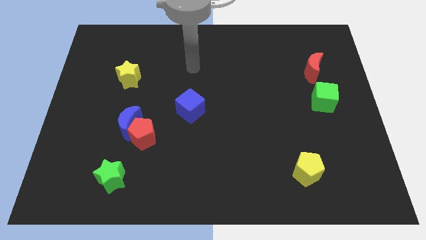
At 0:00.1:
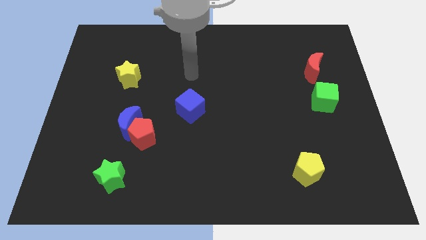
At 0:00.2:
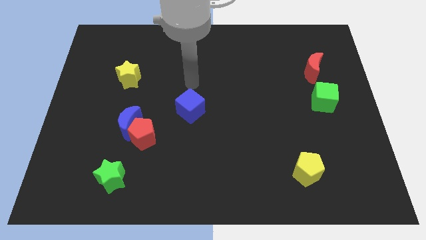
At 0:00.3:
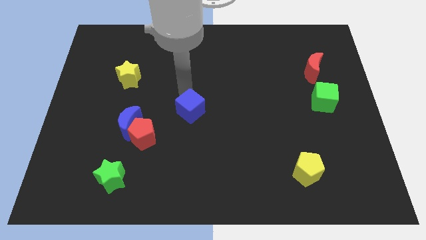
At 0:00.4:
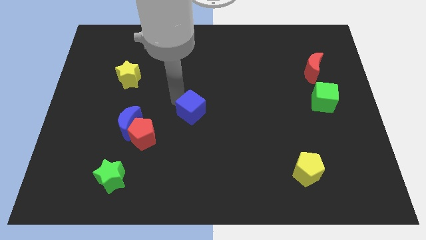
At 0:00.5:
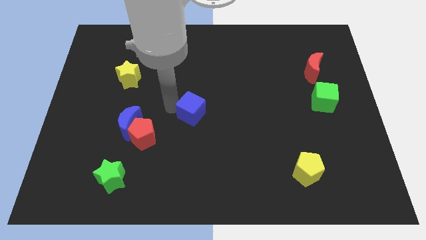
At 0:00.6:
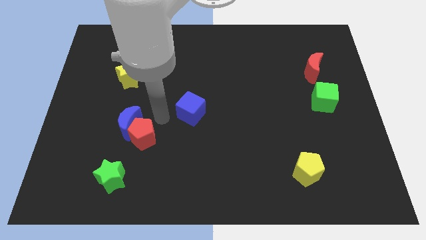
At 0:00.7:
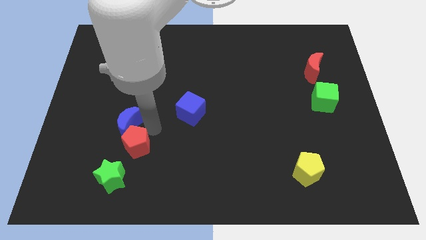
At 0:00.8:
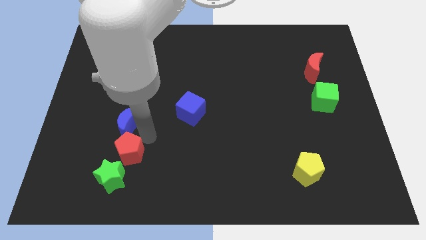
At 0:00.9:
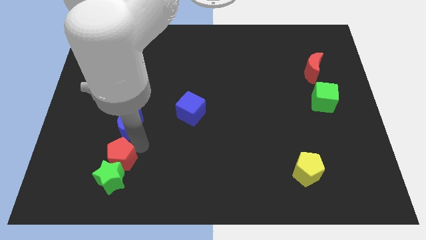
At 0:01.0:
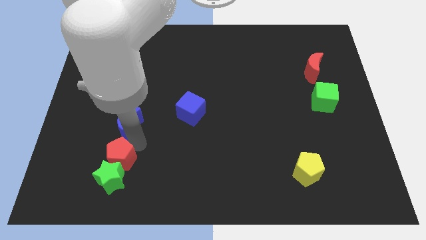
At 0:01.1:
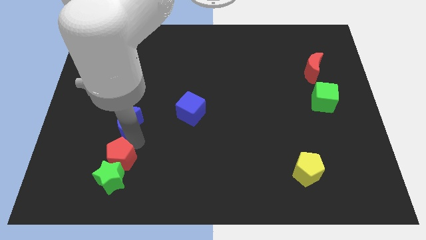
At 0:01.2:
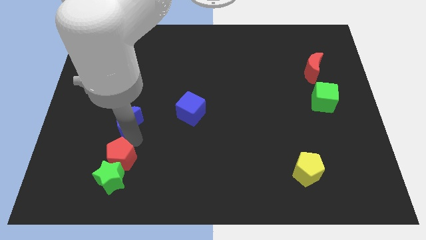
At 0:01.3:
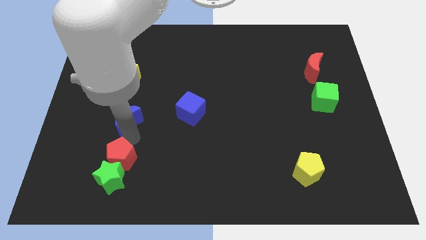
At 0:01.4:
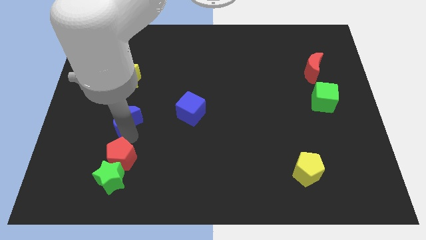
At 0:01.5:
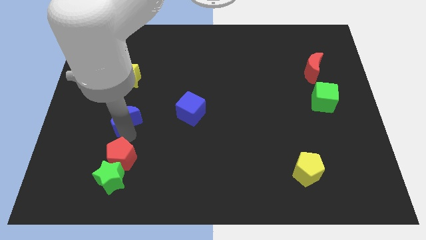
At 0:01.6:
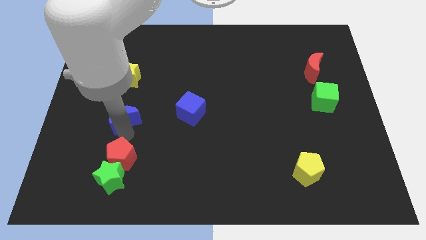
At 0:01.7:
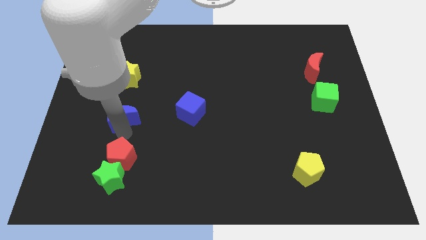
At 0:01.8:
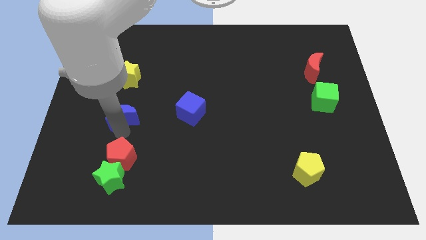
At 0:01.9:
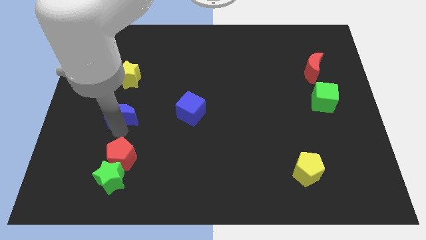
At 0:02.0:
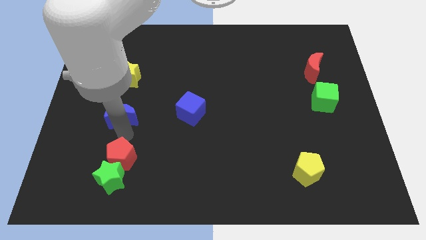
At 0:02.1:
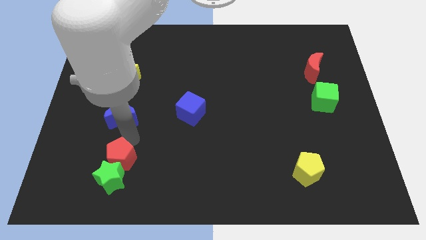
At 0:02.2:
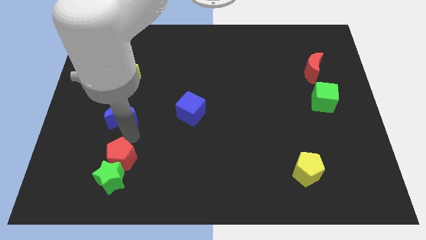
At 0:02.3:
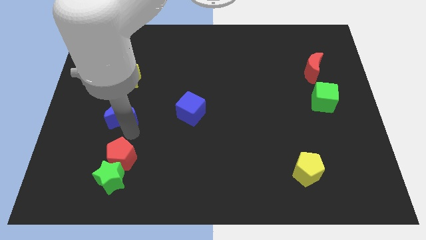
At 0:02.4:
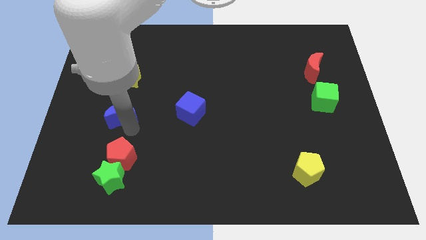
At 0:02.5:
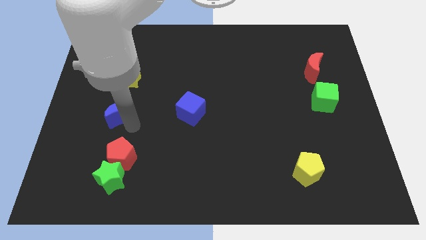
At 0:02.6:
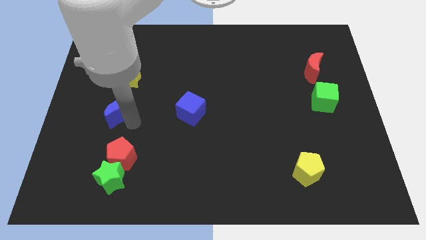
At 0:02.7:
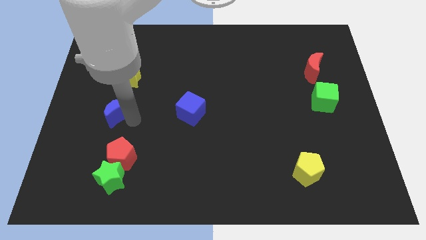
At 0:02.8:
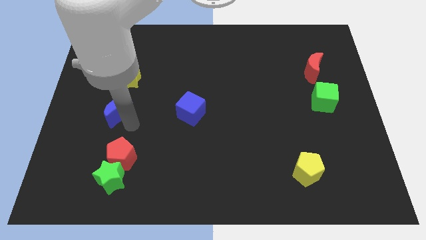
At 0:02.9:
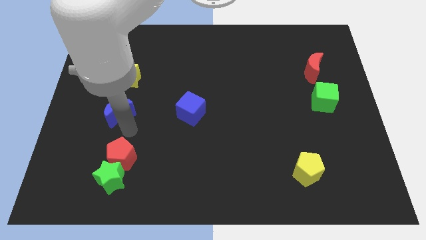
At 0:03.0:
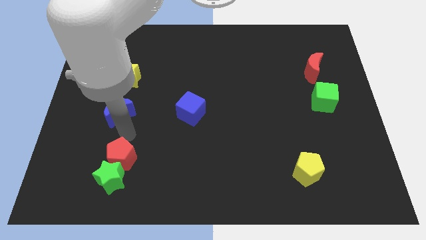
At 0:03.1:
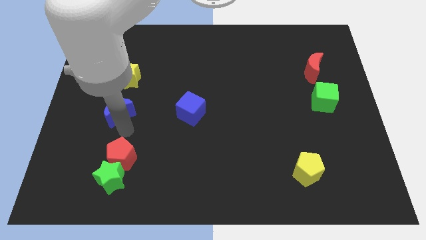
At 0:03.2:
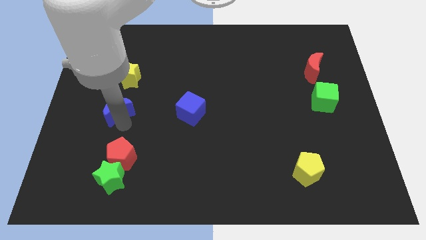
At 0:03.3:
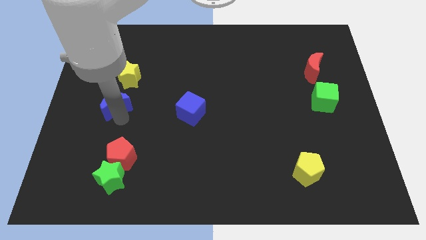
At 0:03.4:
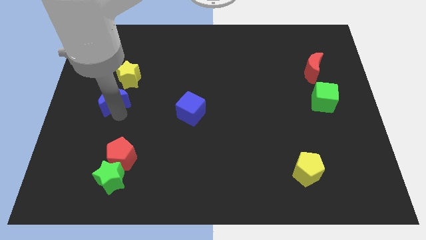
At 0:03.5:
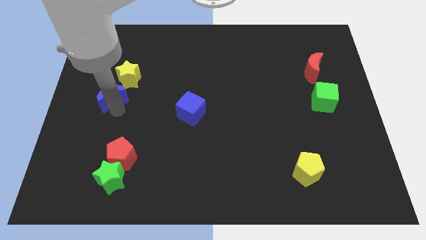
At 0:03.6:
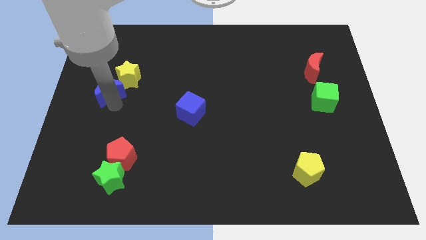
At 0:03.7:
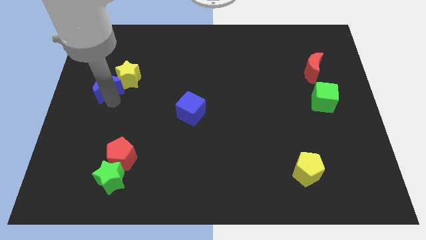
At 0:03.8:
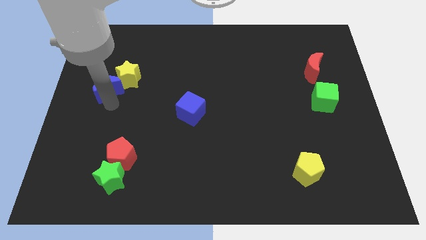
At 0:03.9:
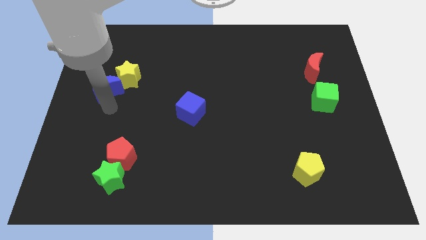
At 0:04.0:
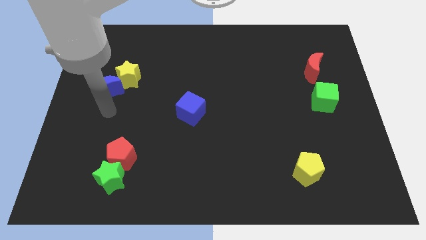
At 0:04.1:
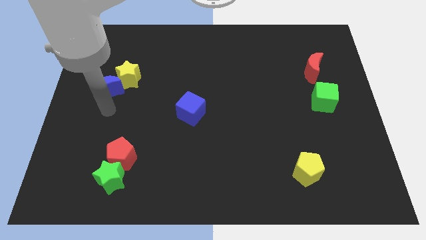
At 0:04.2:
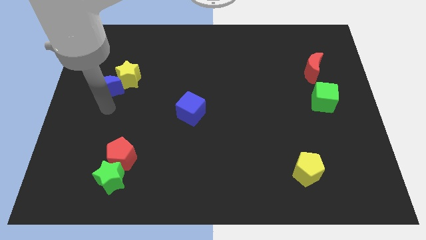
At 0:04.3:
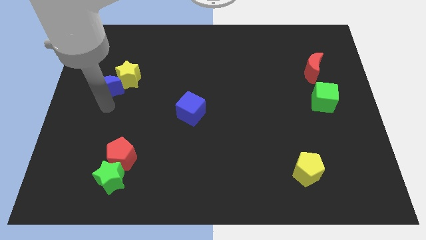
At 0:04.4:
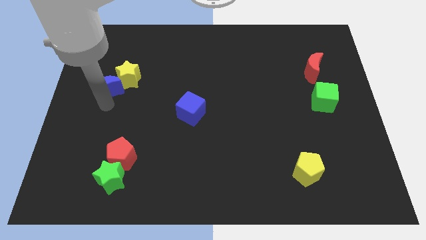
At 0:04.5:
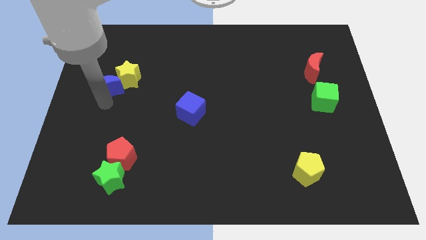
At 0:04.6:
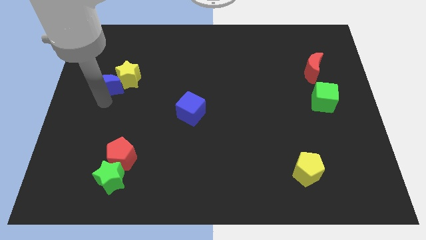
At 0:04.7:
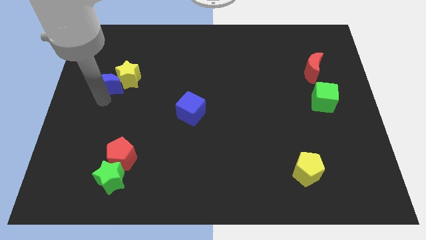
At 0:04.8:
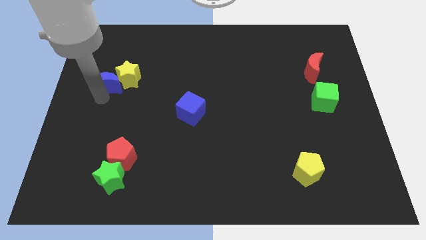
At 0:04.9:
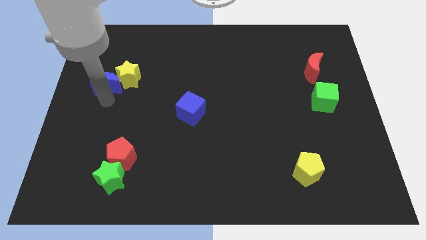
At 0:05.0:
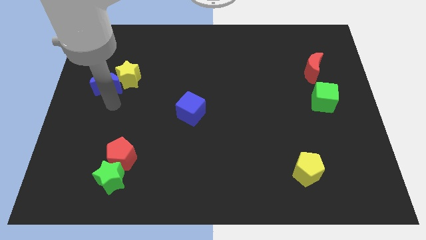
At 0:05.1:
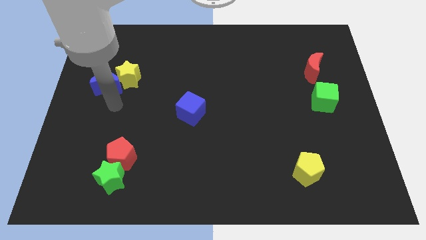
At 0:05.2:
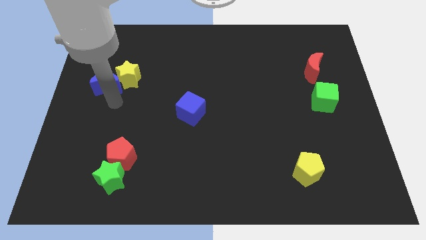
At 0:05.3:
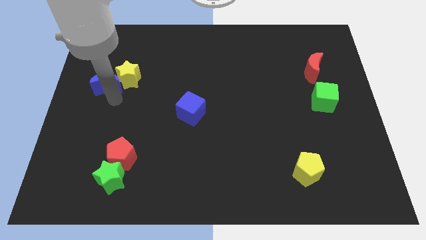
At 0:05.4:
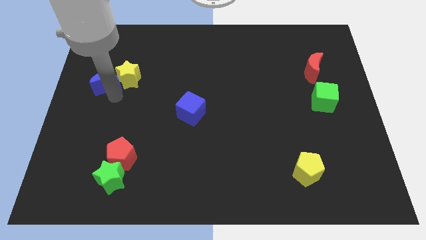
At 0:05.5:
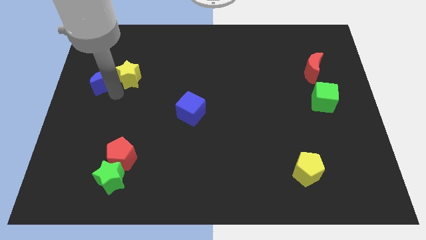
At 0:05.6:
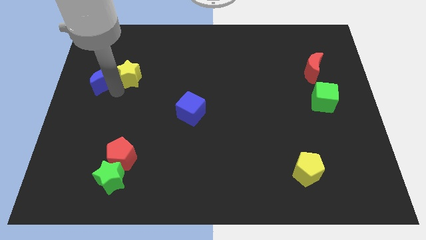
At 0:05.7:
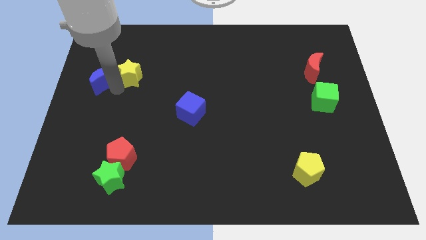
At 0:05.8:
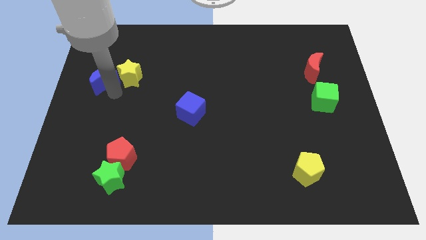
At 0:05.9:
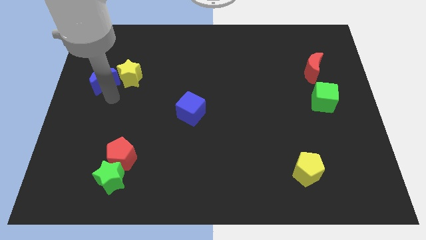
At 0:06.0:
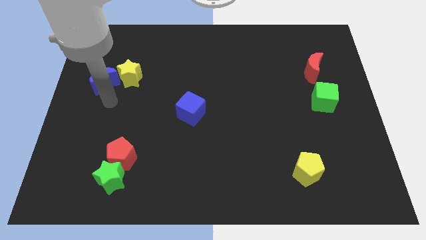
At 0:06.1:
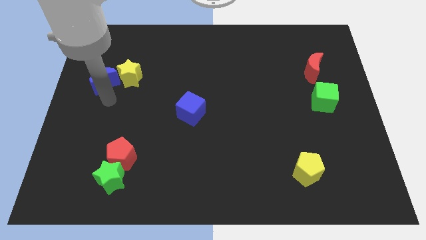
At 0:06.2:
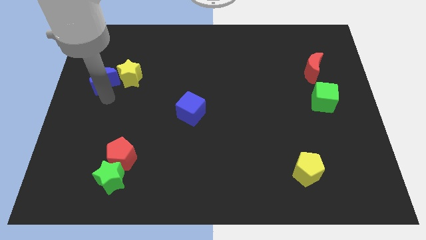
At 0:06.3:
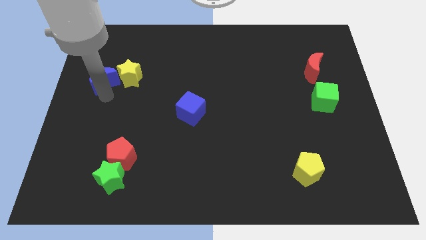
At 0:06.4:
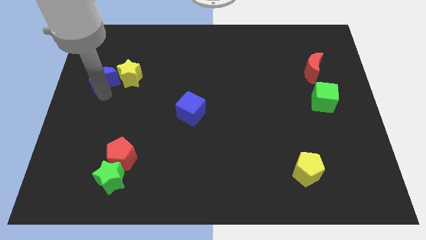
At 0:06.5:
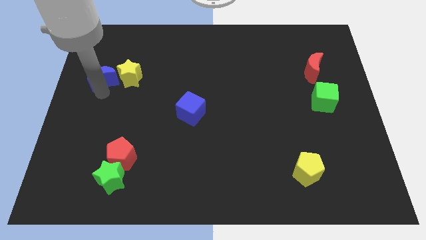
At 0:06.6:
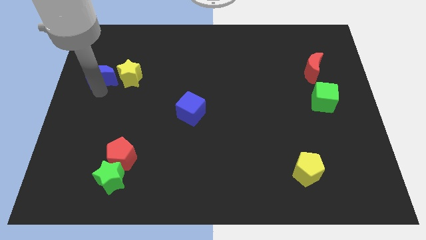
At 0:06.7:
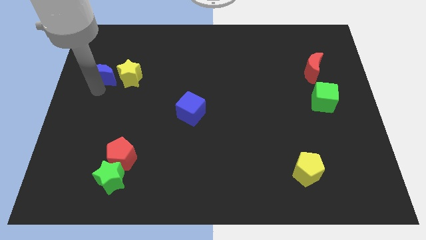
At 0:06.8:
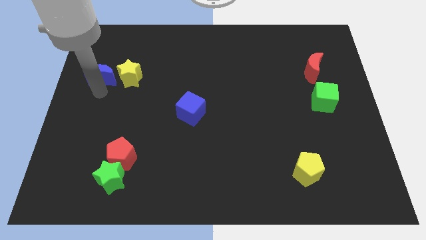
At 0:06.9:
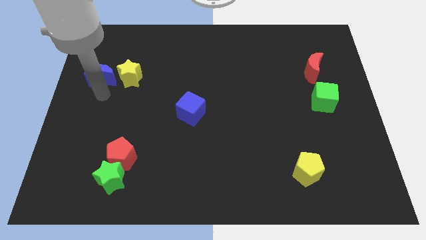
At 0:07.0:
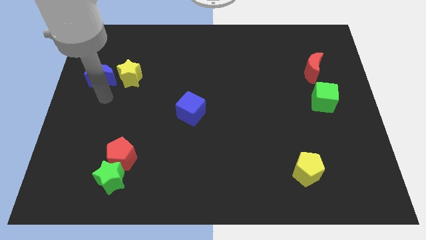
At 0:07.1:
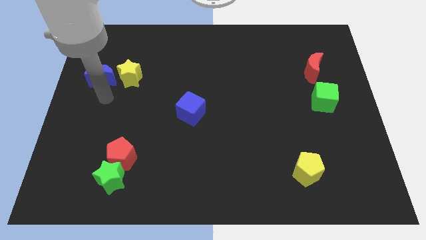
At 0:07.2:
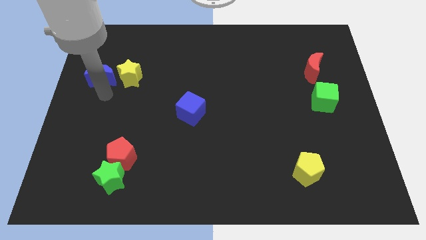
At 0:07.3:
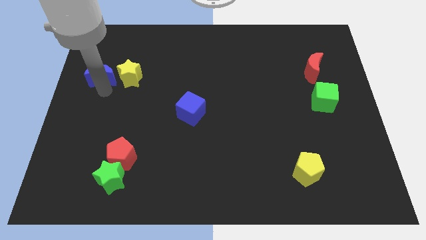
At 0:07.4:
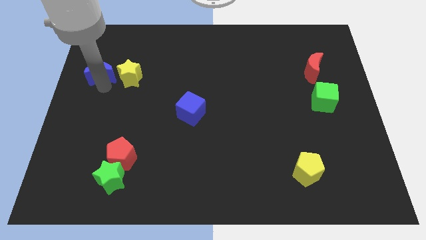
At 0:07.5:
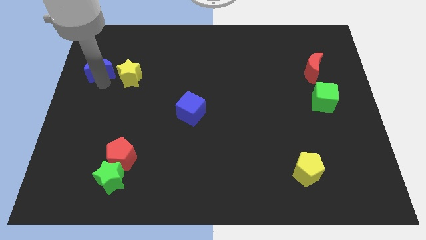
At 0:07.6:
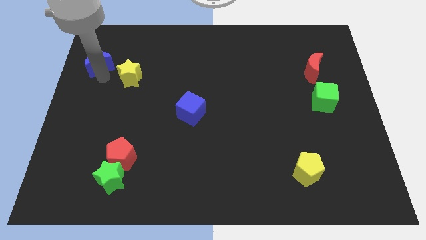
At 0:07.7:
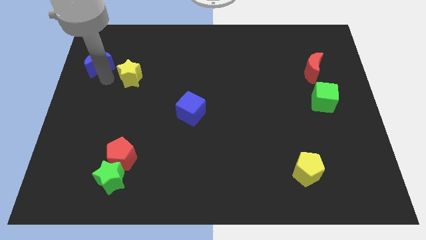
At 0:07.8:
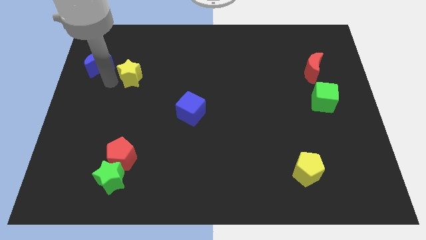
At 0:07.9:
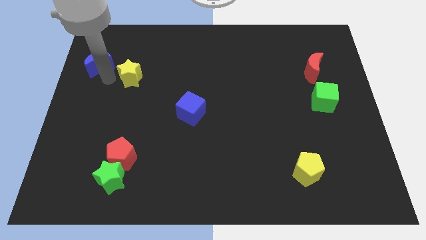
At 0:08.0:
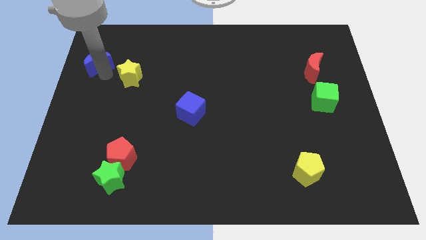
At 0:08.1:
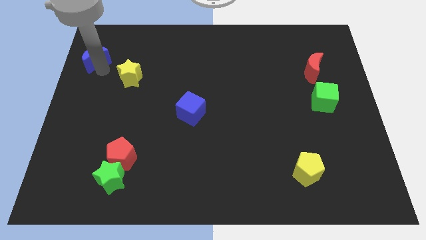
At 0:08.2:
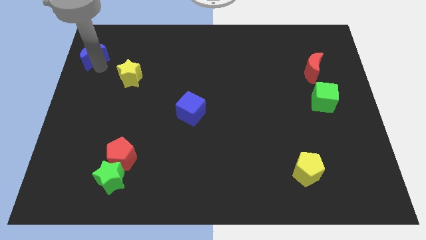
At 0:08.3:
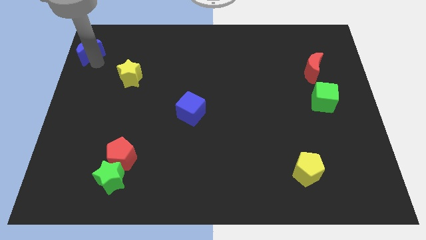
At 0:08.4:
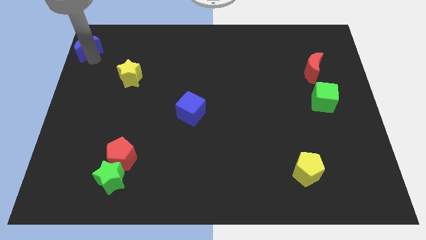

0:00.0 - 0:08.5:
push the blue moon to the upper left corner
